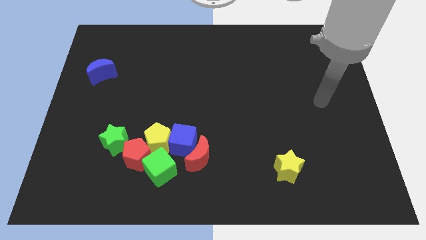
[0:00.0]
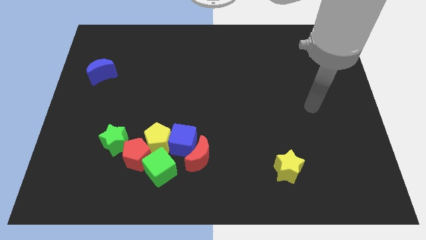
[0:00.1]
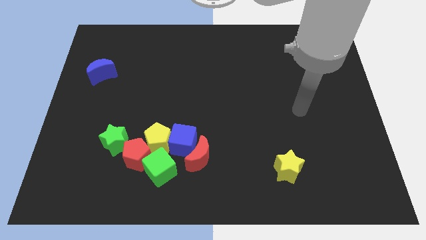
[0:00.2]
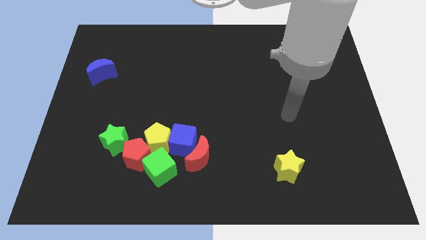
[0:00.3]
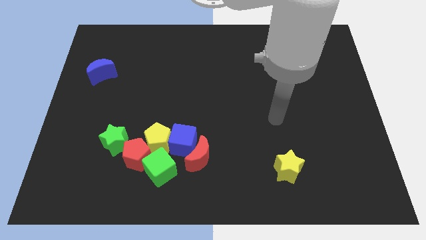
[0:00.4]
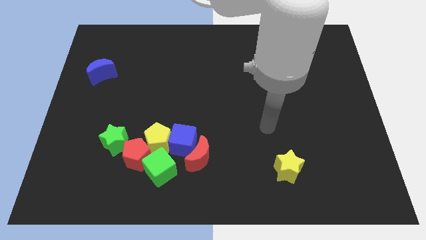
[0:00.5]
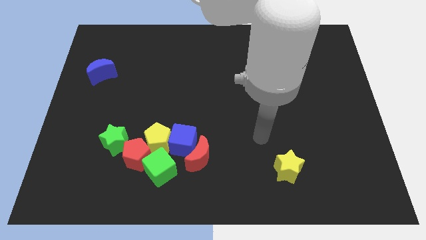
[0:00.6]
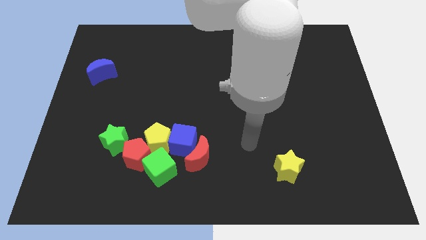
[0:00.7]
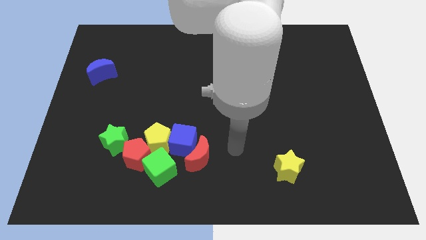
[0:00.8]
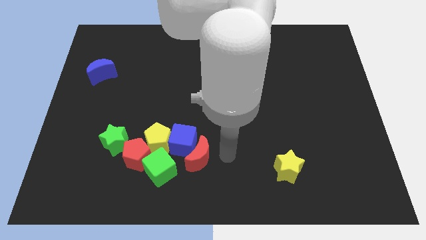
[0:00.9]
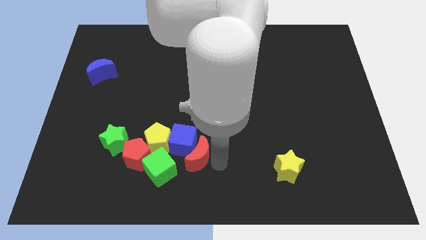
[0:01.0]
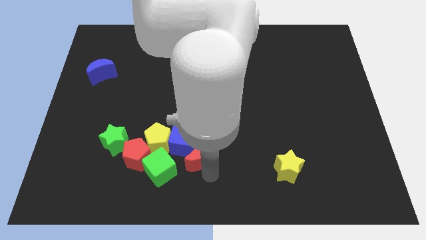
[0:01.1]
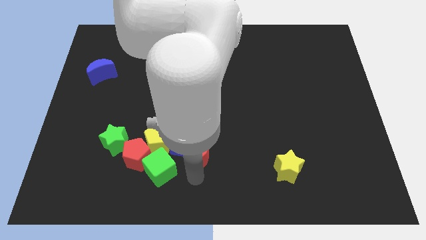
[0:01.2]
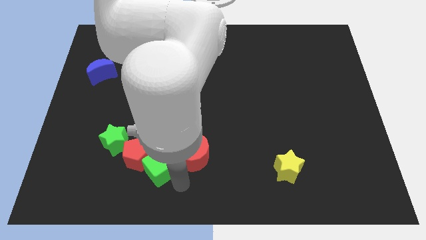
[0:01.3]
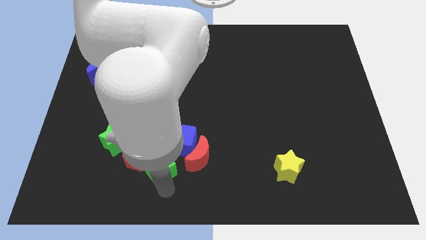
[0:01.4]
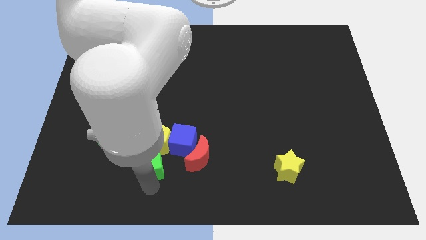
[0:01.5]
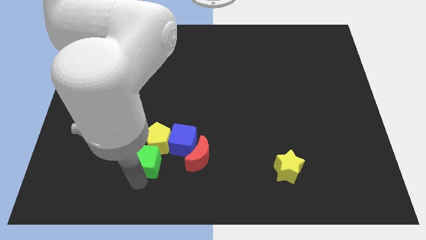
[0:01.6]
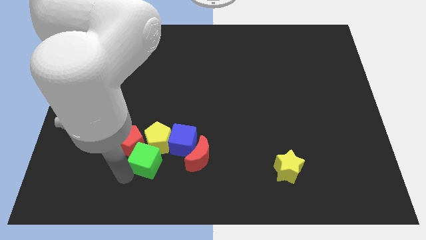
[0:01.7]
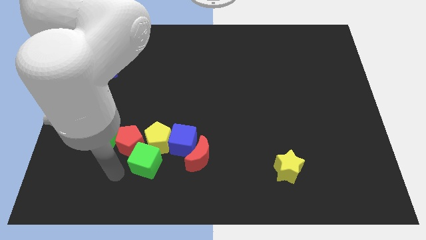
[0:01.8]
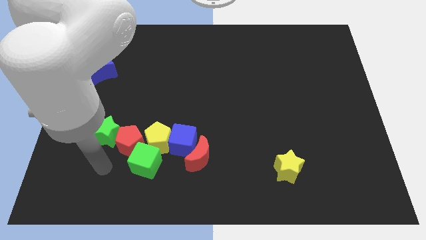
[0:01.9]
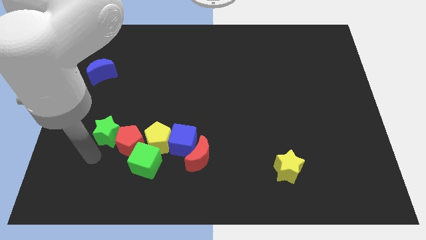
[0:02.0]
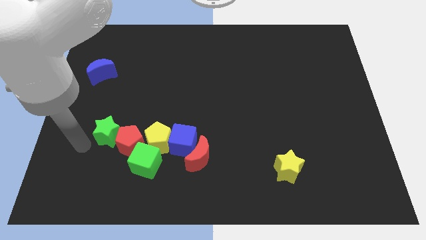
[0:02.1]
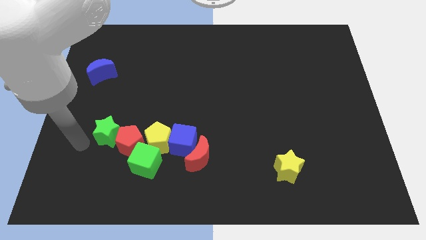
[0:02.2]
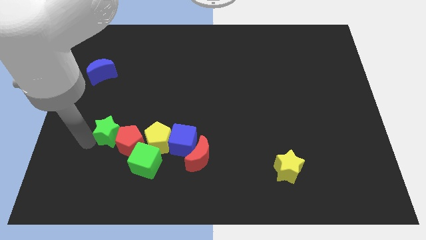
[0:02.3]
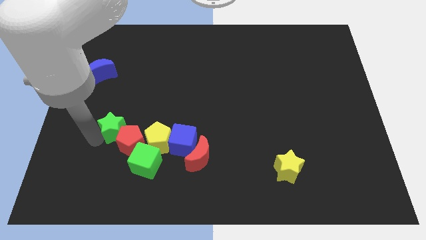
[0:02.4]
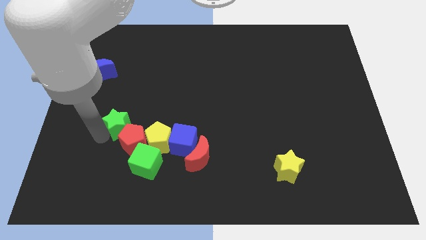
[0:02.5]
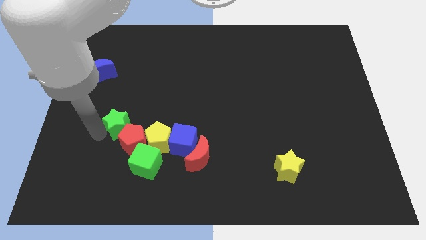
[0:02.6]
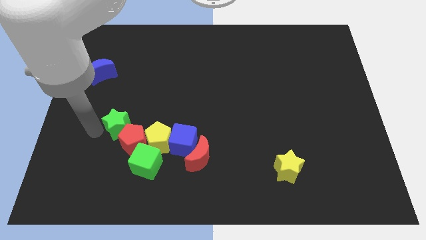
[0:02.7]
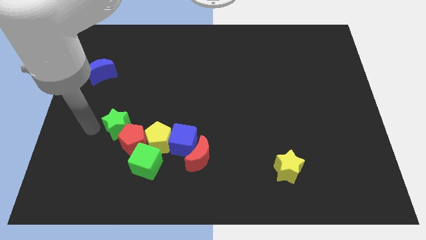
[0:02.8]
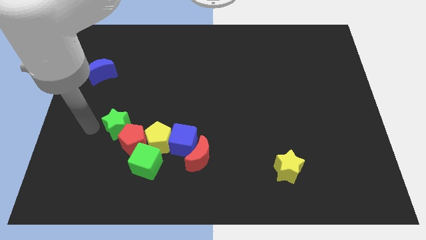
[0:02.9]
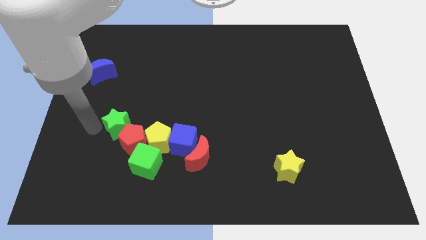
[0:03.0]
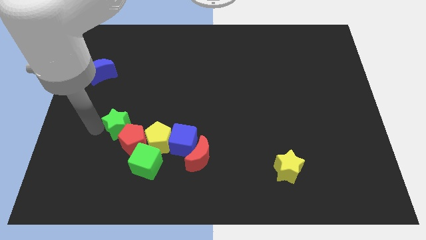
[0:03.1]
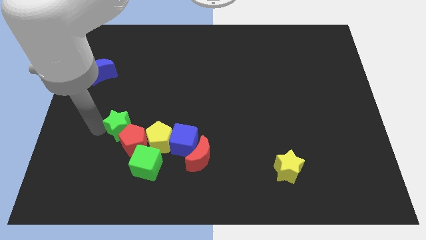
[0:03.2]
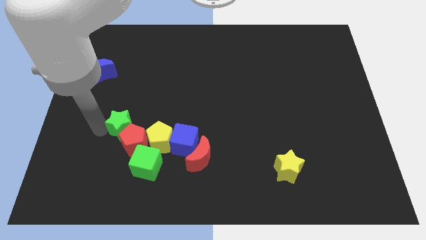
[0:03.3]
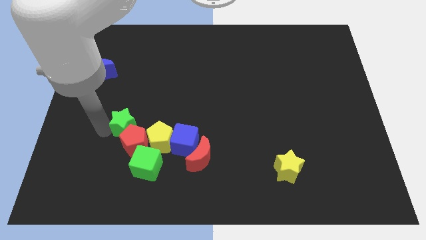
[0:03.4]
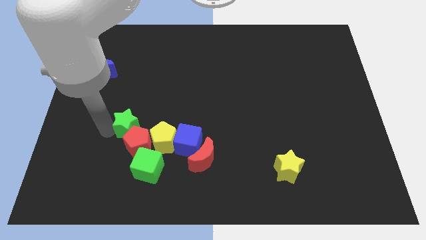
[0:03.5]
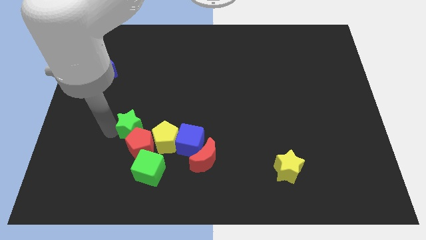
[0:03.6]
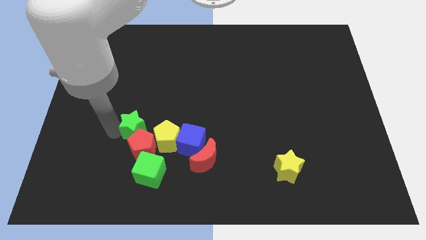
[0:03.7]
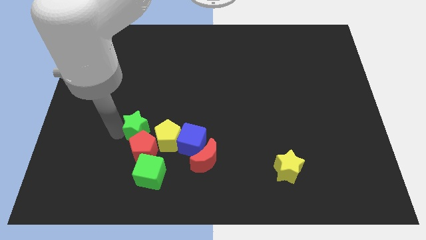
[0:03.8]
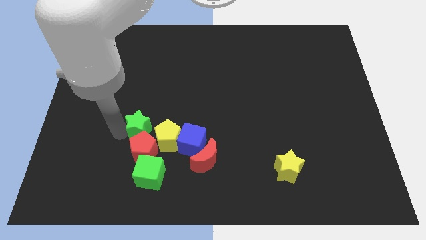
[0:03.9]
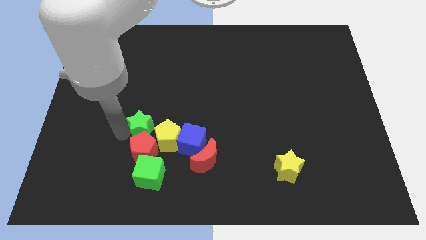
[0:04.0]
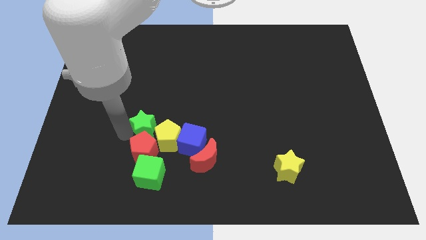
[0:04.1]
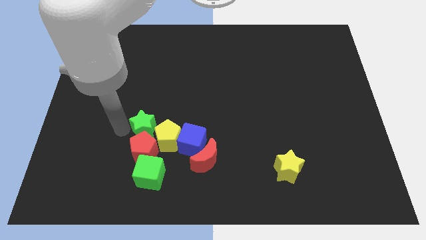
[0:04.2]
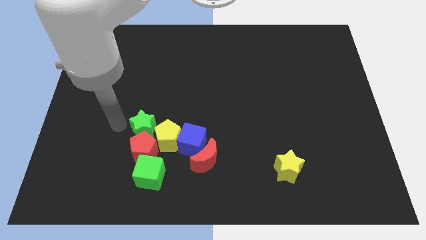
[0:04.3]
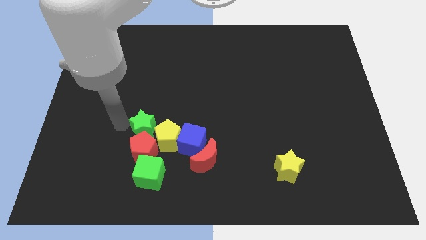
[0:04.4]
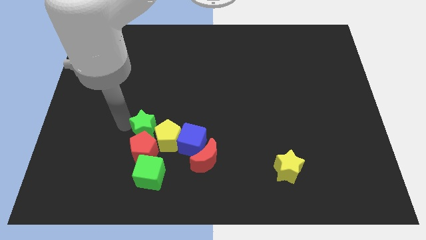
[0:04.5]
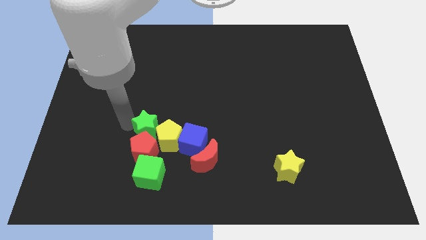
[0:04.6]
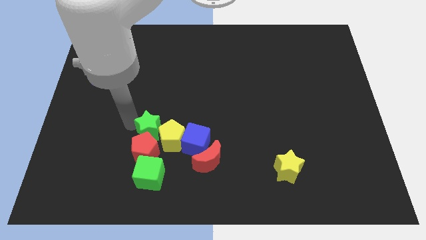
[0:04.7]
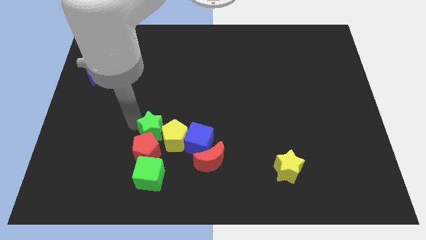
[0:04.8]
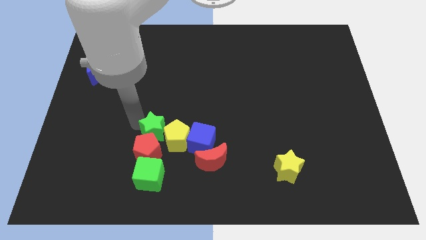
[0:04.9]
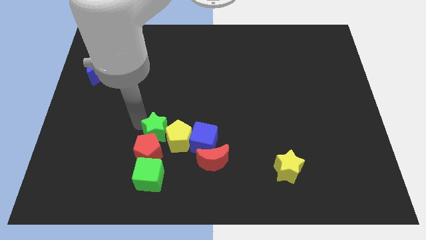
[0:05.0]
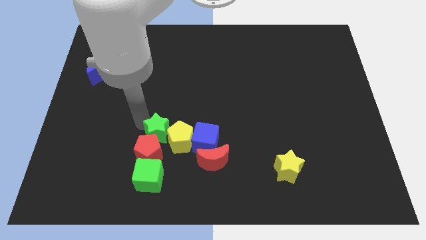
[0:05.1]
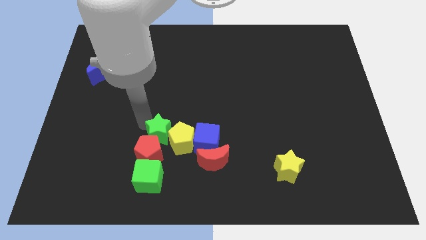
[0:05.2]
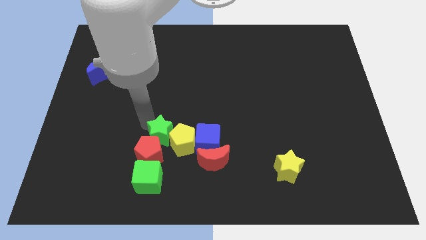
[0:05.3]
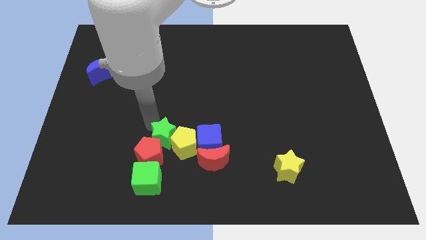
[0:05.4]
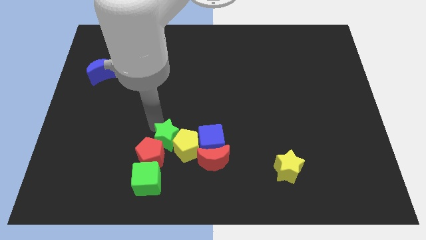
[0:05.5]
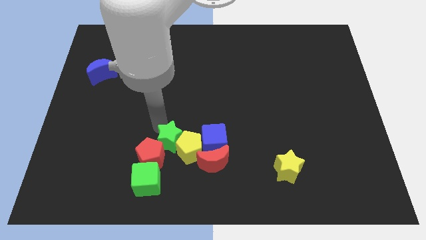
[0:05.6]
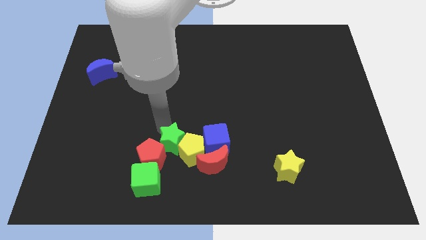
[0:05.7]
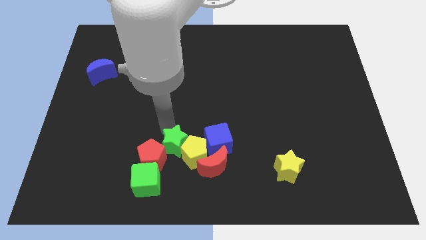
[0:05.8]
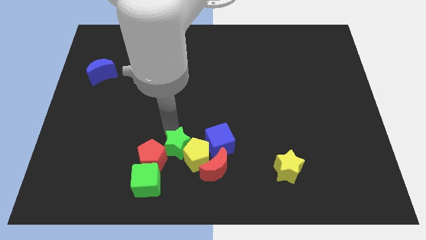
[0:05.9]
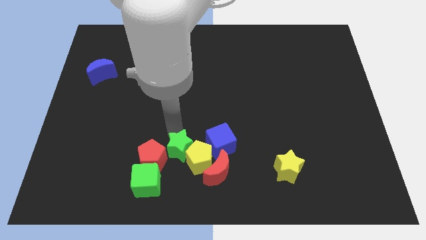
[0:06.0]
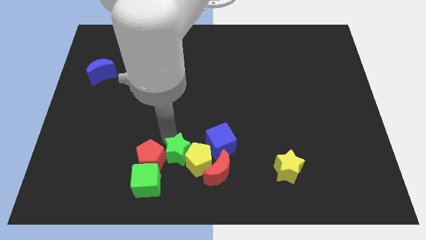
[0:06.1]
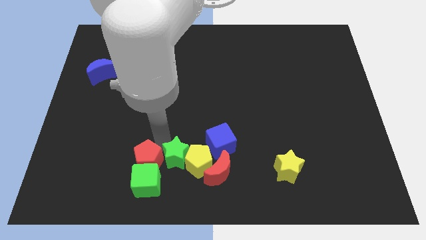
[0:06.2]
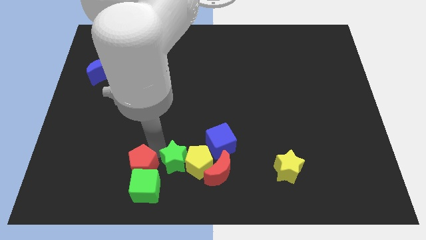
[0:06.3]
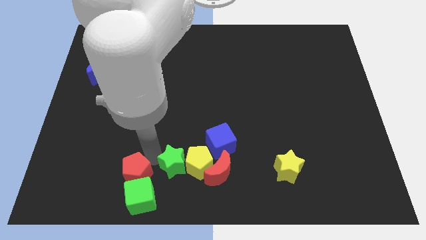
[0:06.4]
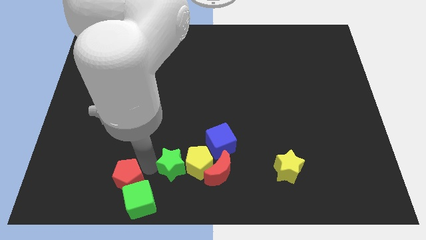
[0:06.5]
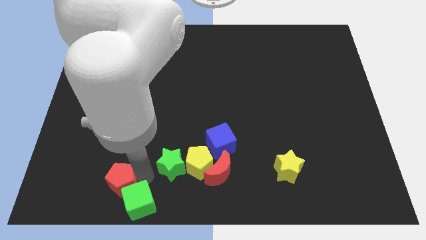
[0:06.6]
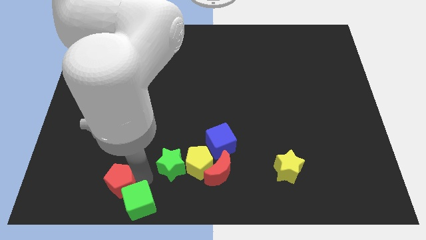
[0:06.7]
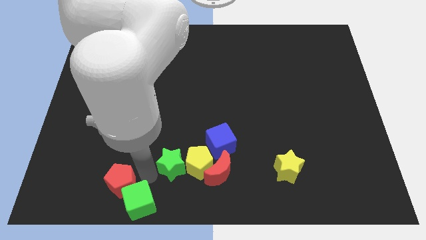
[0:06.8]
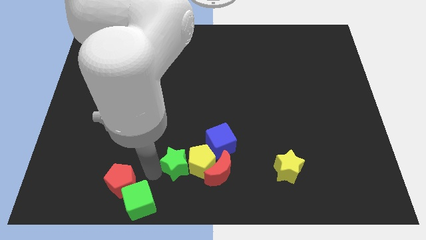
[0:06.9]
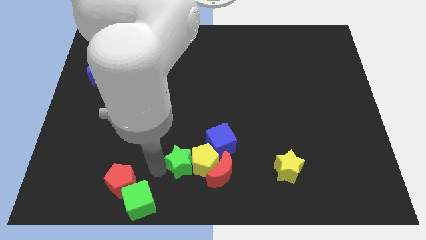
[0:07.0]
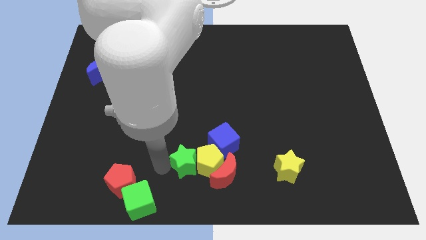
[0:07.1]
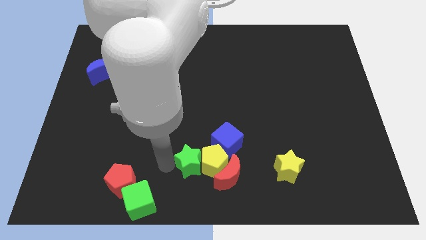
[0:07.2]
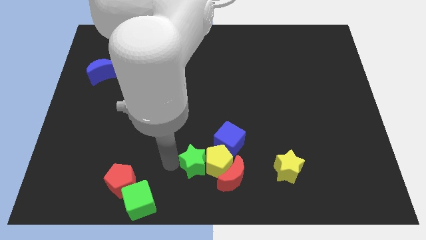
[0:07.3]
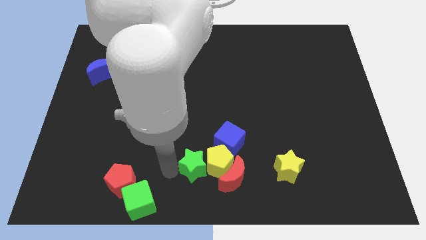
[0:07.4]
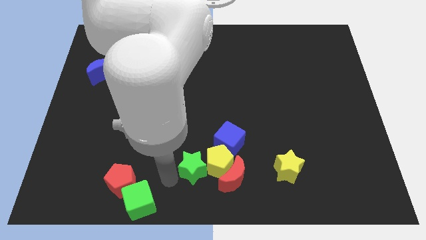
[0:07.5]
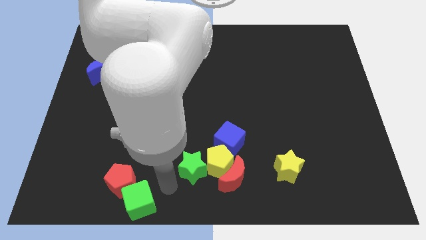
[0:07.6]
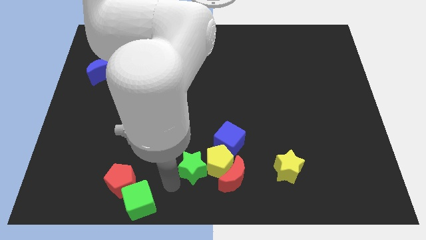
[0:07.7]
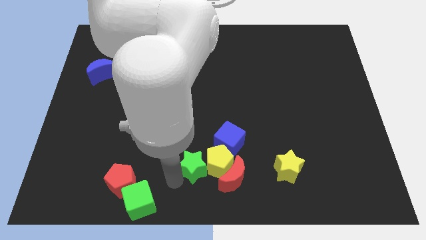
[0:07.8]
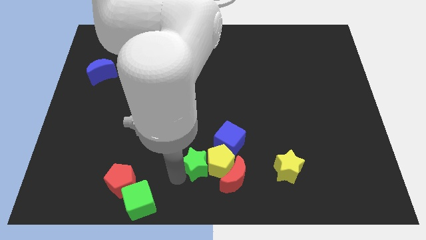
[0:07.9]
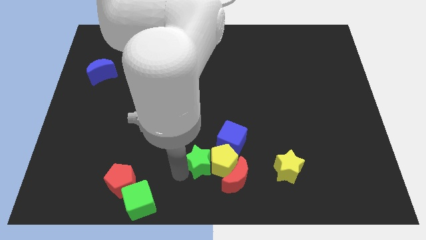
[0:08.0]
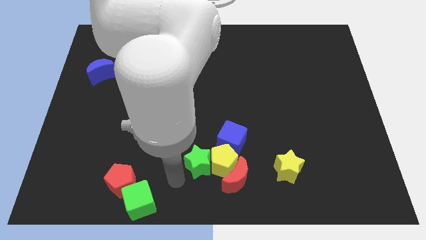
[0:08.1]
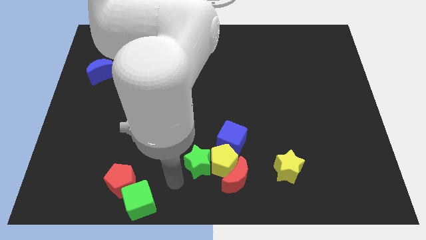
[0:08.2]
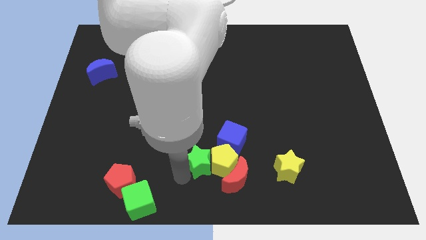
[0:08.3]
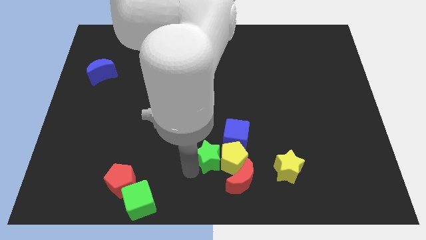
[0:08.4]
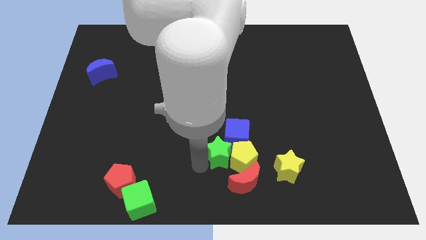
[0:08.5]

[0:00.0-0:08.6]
push the green star to the blue cube
